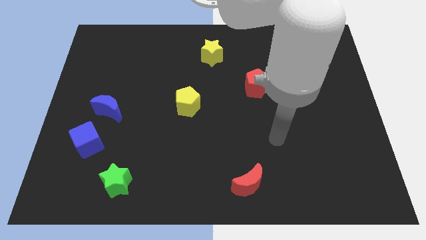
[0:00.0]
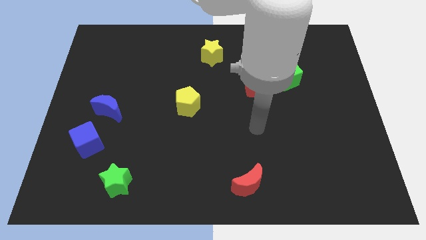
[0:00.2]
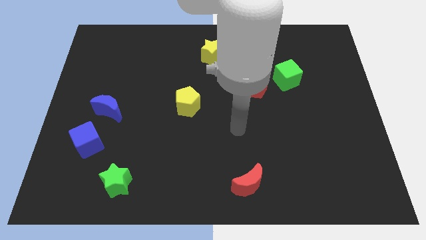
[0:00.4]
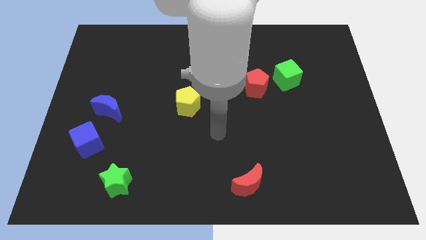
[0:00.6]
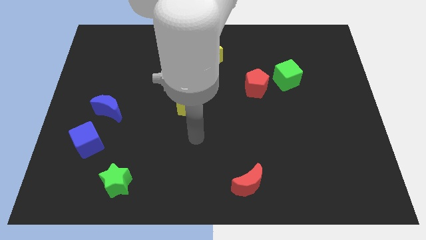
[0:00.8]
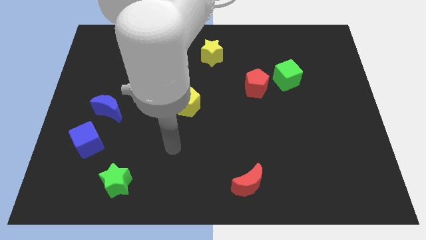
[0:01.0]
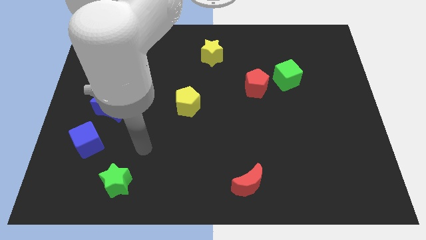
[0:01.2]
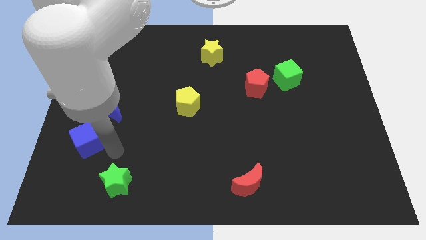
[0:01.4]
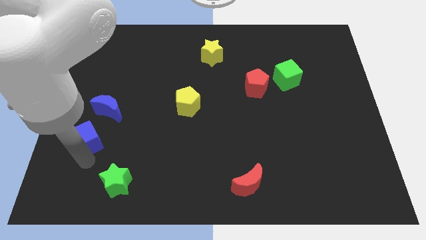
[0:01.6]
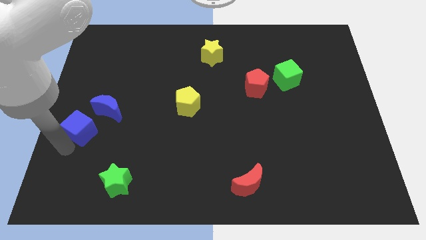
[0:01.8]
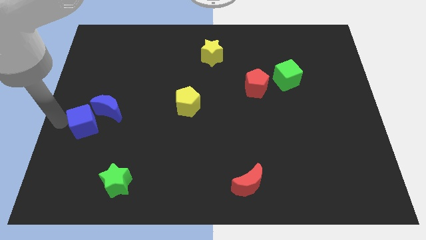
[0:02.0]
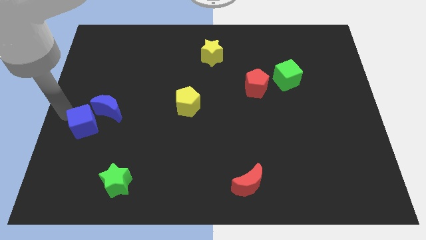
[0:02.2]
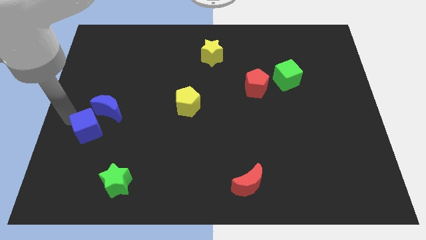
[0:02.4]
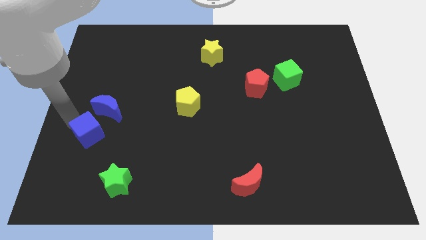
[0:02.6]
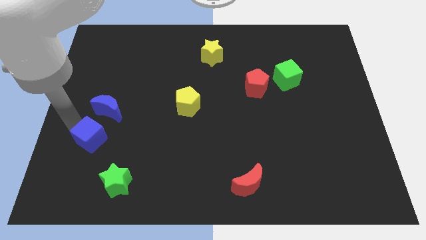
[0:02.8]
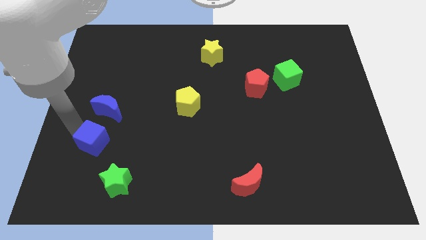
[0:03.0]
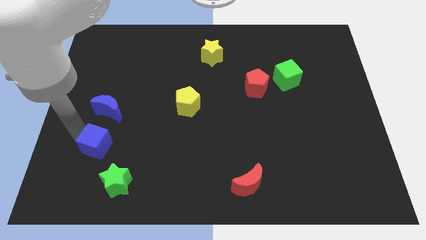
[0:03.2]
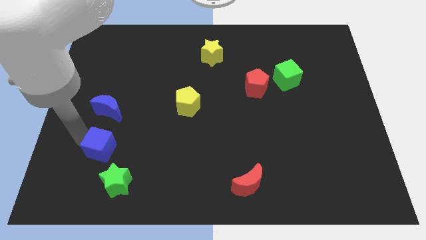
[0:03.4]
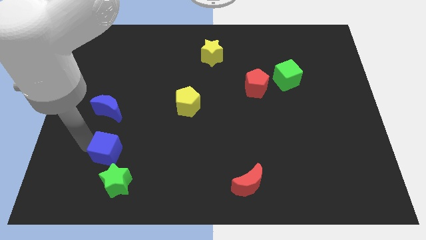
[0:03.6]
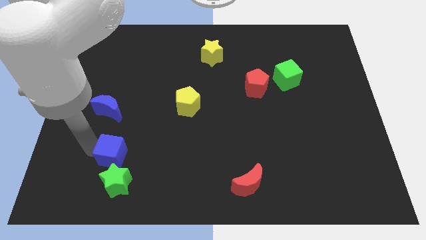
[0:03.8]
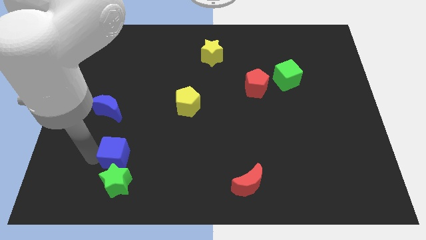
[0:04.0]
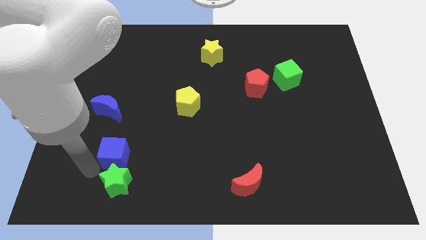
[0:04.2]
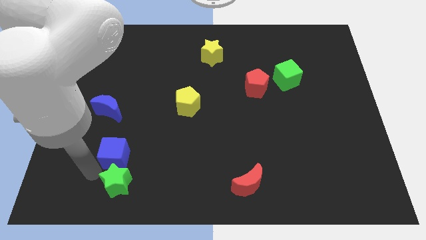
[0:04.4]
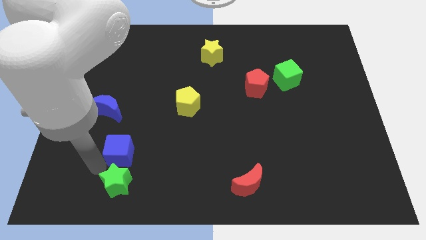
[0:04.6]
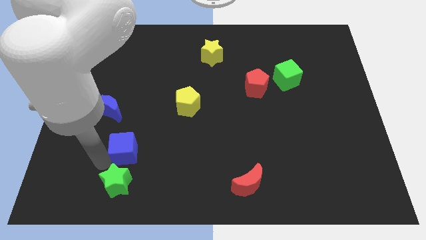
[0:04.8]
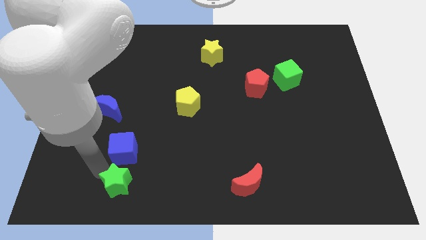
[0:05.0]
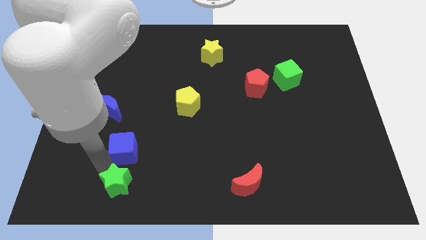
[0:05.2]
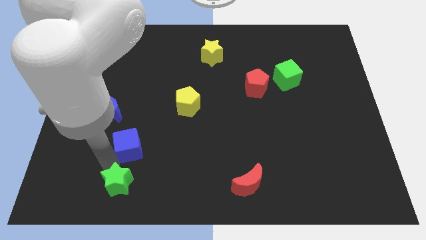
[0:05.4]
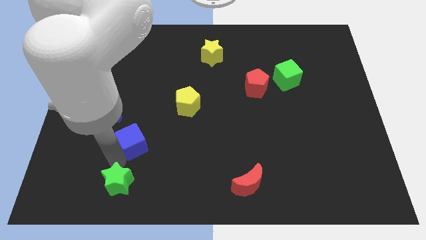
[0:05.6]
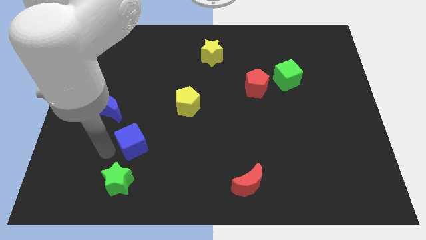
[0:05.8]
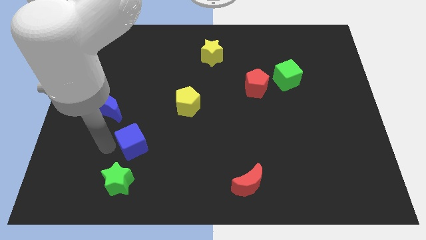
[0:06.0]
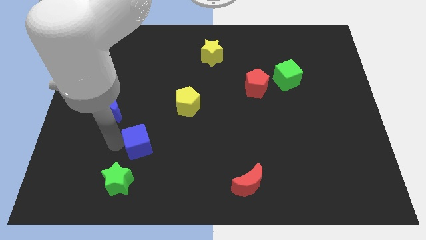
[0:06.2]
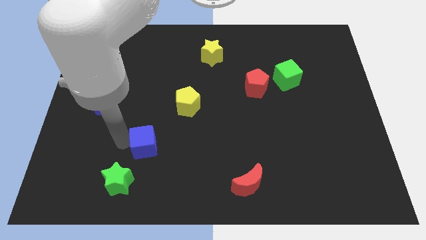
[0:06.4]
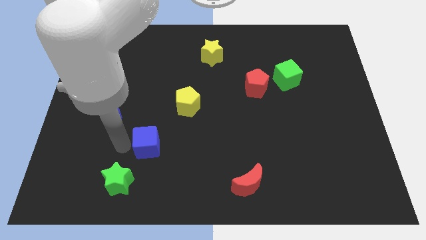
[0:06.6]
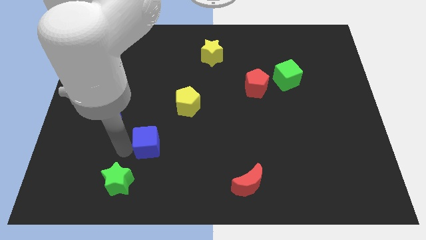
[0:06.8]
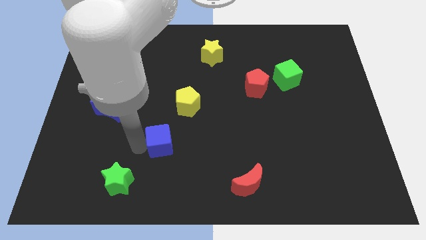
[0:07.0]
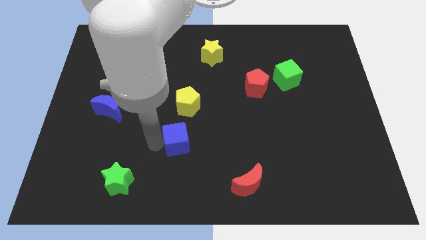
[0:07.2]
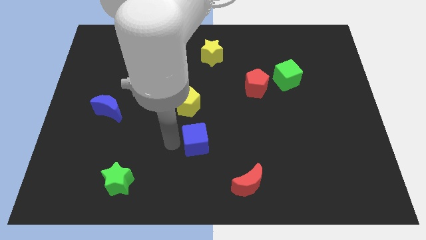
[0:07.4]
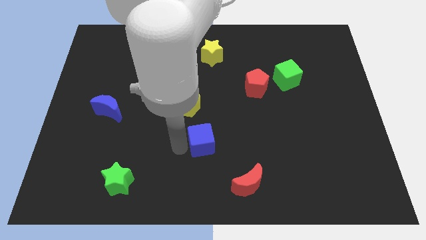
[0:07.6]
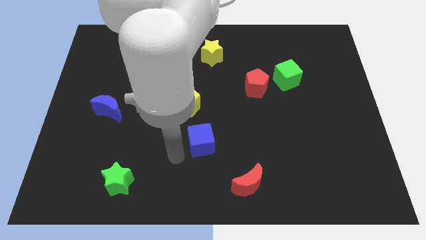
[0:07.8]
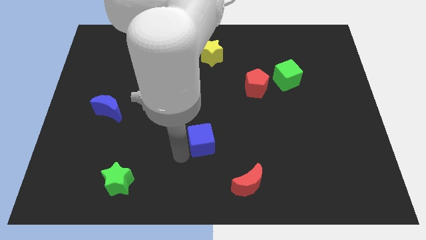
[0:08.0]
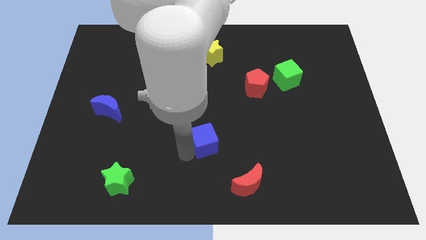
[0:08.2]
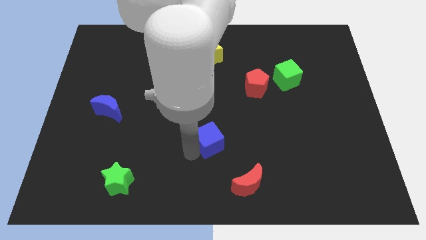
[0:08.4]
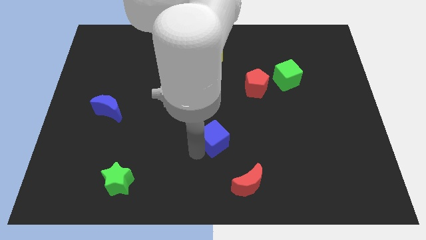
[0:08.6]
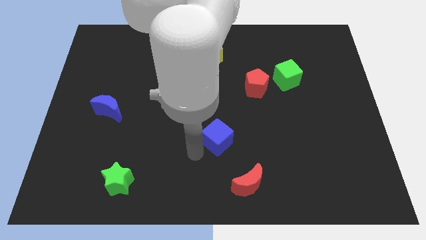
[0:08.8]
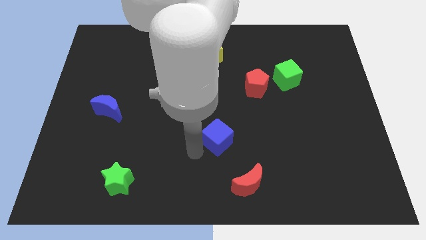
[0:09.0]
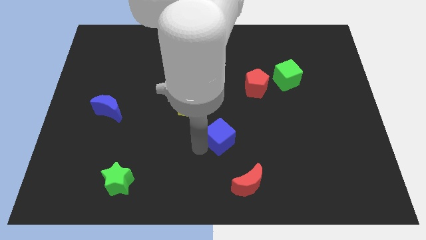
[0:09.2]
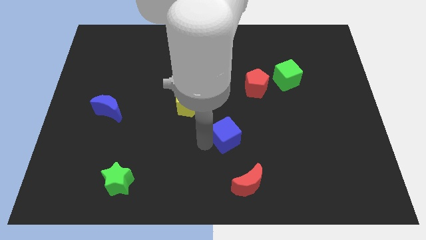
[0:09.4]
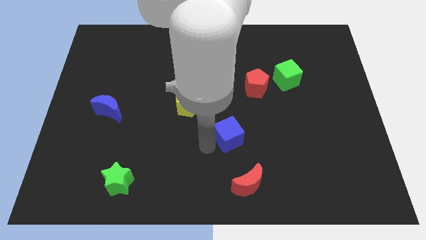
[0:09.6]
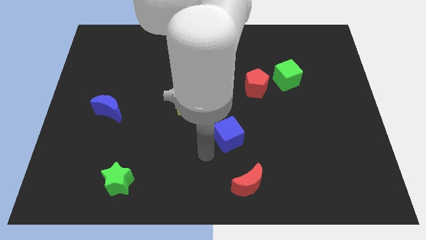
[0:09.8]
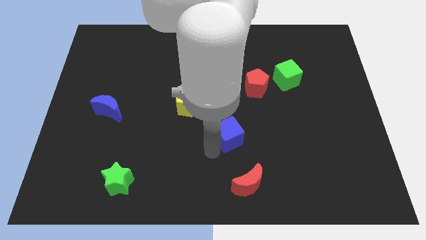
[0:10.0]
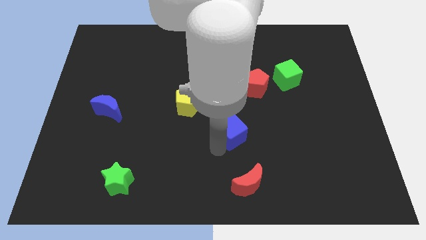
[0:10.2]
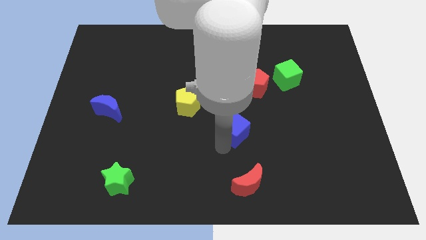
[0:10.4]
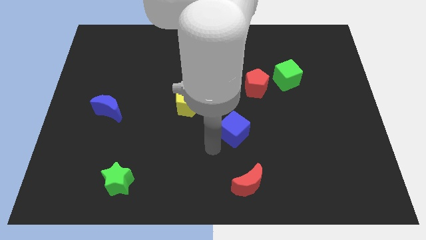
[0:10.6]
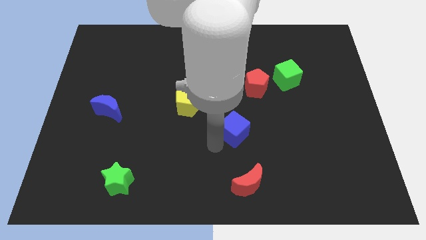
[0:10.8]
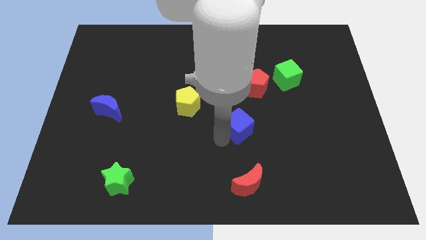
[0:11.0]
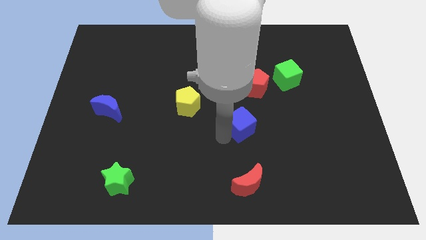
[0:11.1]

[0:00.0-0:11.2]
slide the blue cube to the bottom of the red pentagon

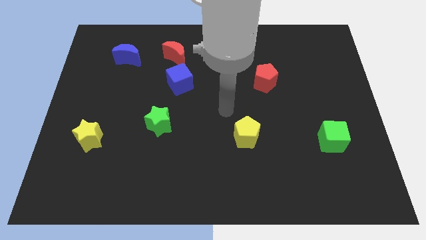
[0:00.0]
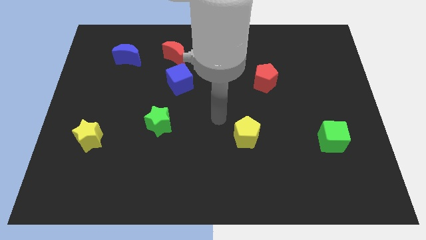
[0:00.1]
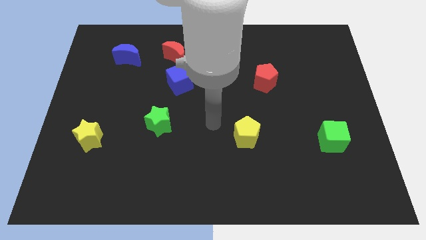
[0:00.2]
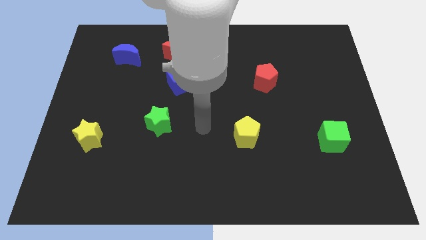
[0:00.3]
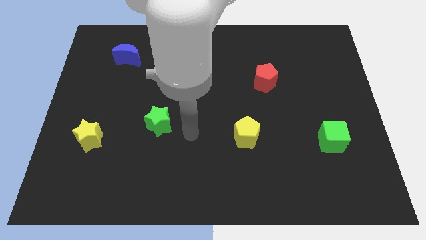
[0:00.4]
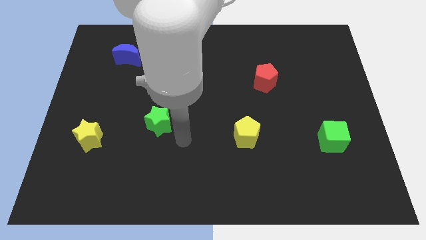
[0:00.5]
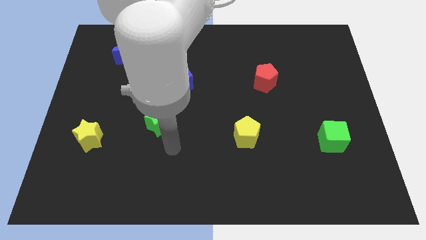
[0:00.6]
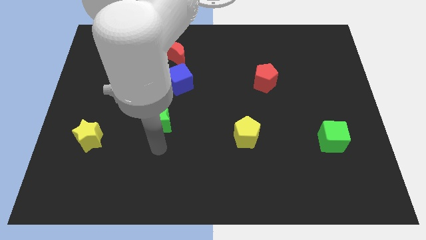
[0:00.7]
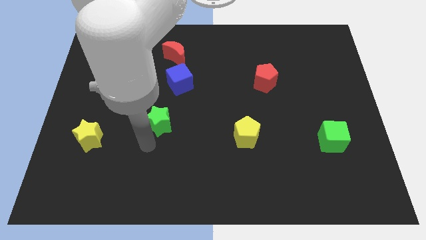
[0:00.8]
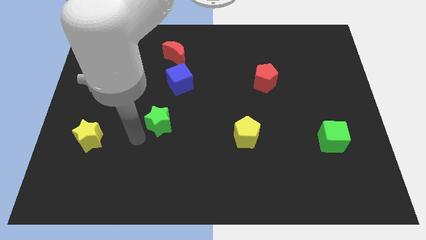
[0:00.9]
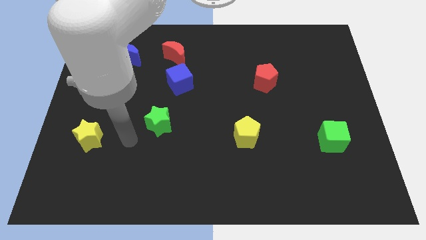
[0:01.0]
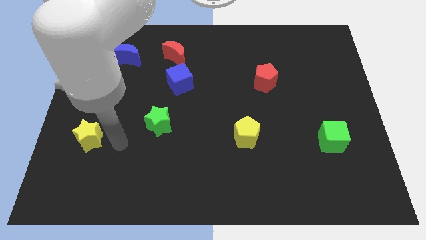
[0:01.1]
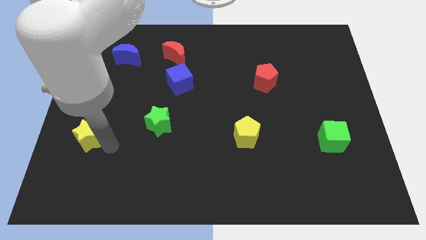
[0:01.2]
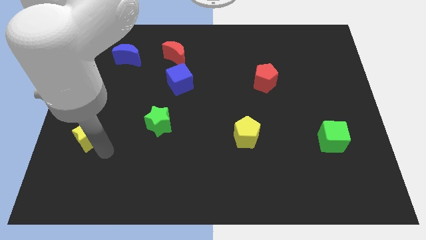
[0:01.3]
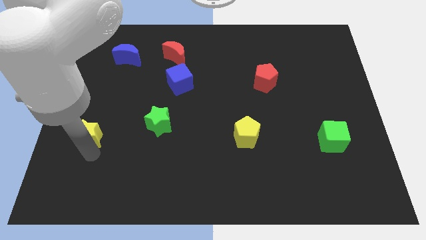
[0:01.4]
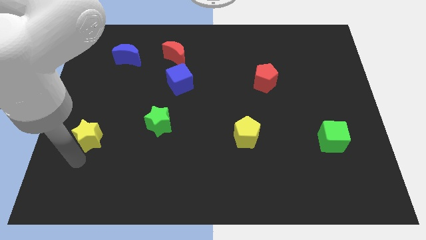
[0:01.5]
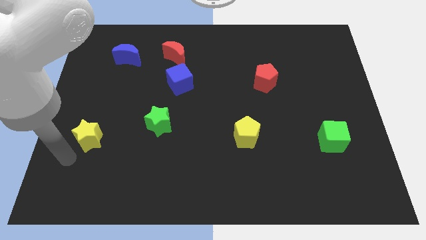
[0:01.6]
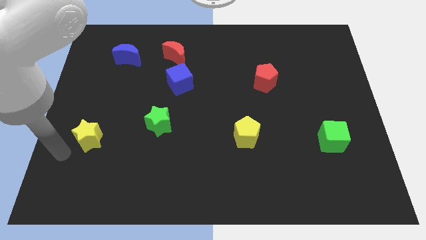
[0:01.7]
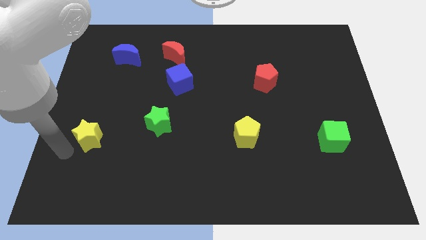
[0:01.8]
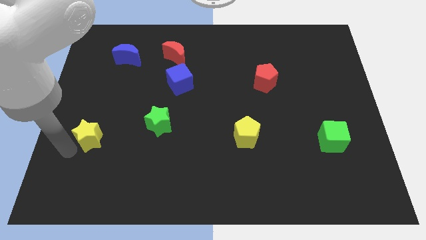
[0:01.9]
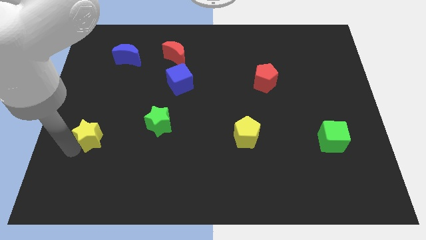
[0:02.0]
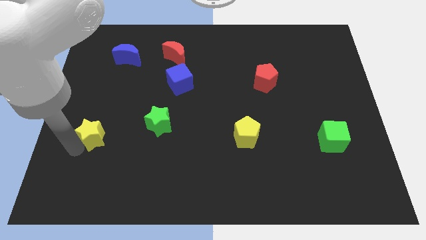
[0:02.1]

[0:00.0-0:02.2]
move the yellow star to the left side of the green star

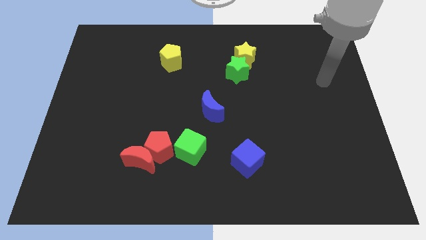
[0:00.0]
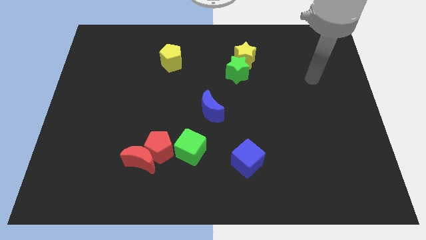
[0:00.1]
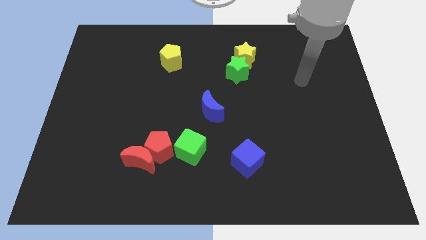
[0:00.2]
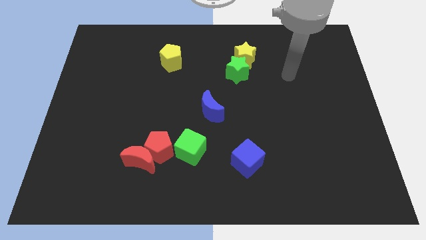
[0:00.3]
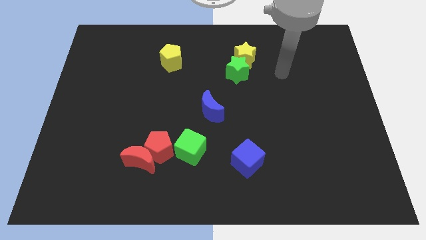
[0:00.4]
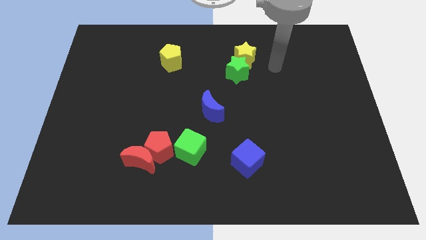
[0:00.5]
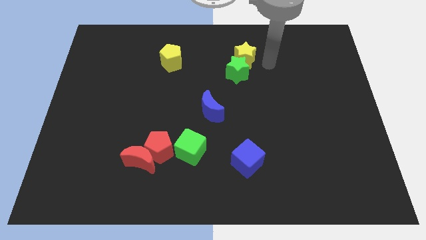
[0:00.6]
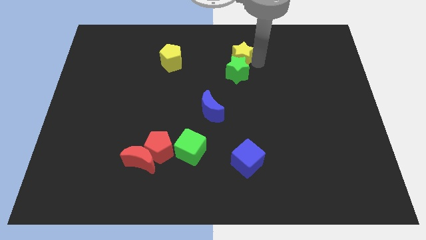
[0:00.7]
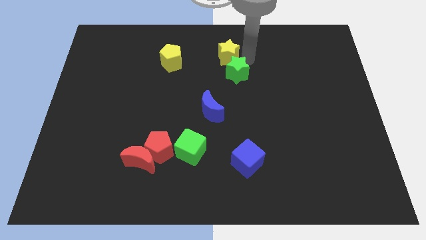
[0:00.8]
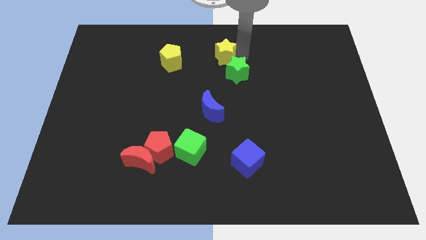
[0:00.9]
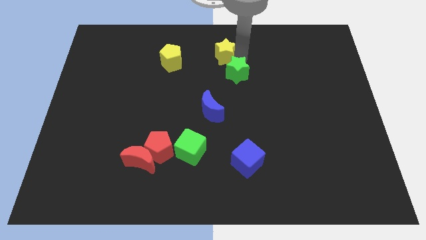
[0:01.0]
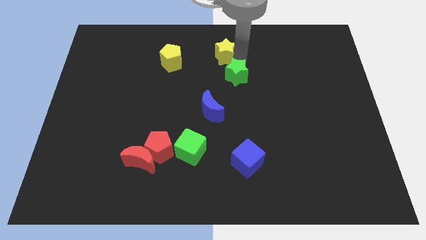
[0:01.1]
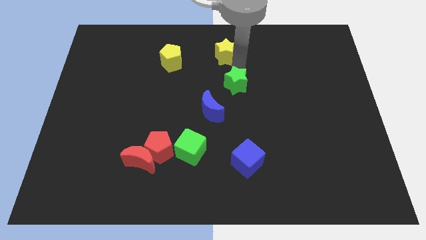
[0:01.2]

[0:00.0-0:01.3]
push the green star to the top right of the blue moon
